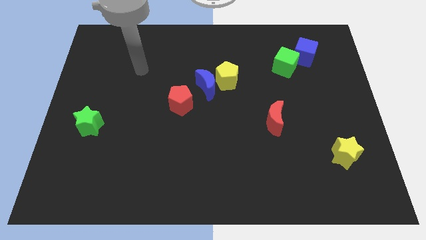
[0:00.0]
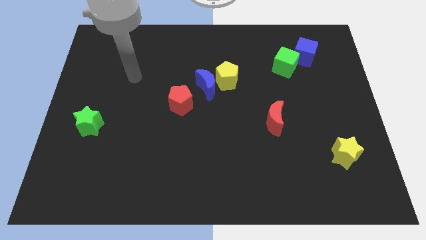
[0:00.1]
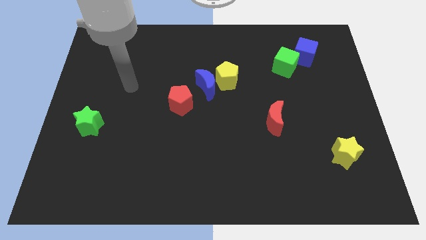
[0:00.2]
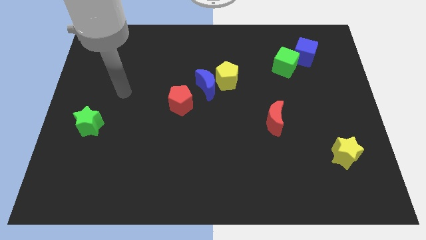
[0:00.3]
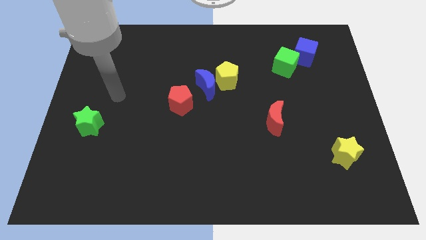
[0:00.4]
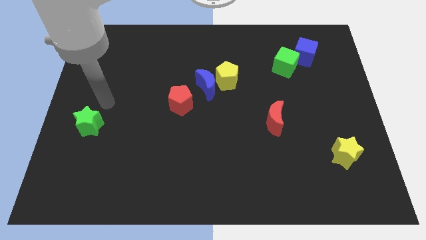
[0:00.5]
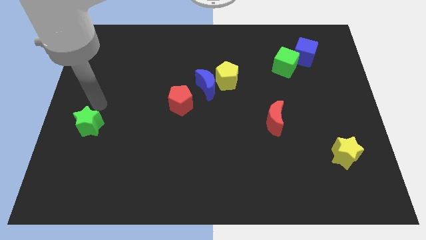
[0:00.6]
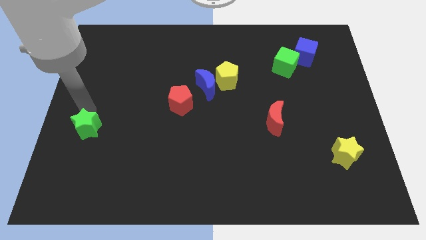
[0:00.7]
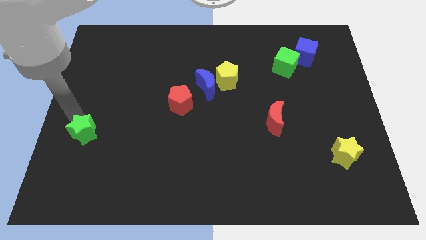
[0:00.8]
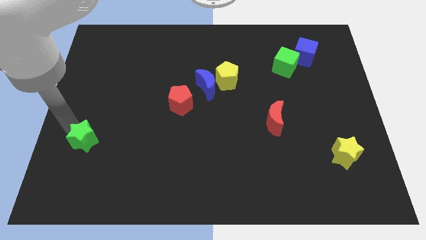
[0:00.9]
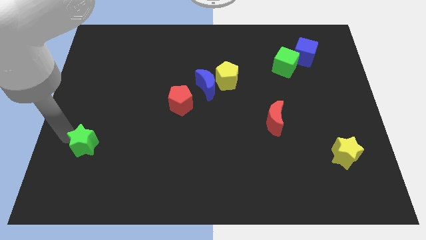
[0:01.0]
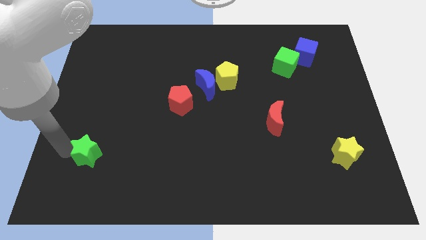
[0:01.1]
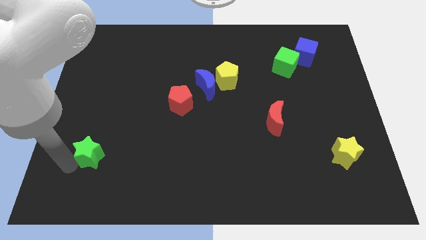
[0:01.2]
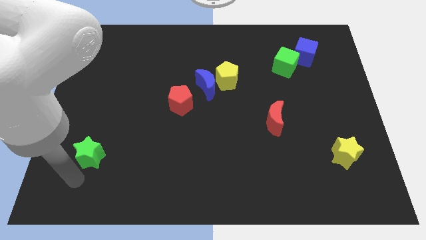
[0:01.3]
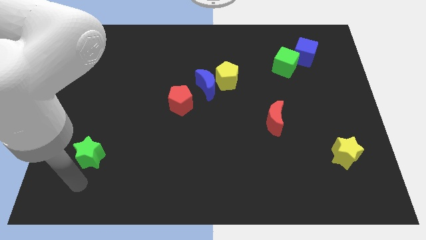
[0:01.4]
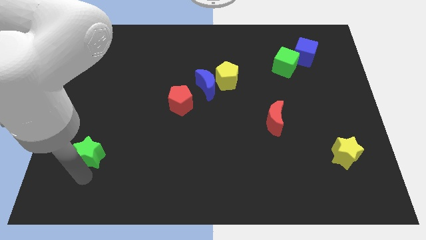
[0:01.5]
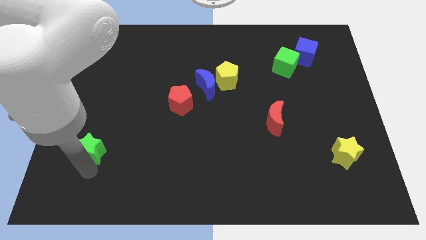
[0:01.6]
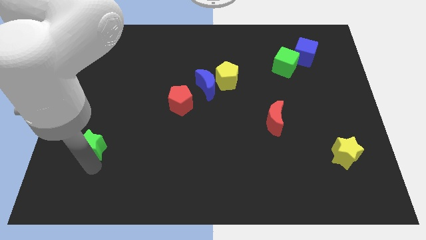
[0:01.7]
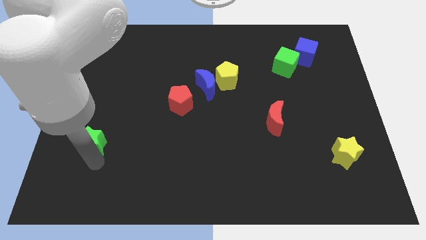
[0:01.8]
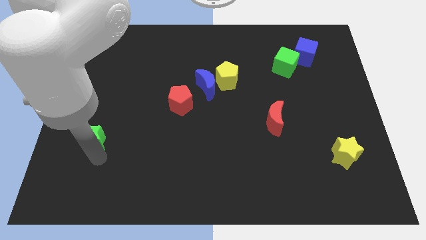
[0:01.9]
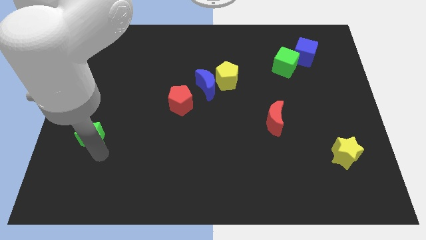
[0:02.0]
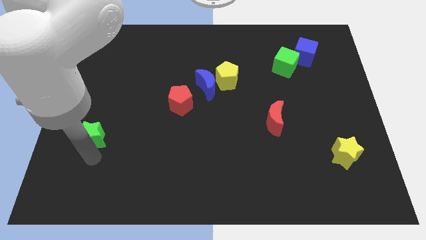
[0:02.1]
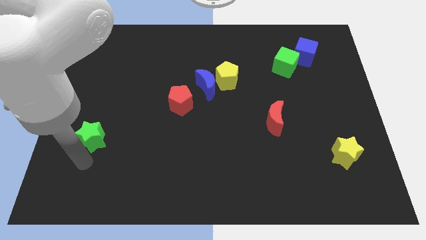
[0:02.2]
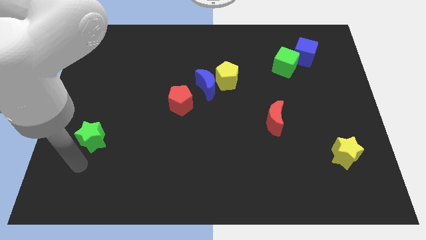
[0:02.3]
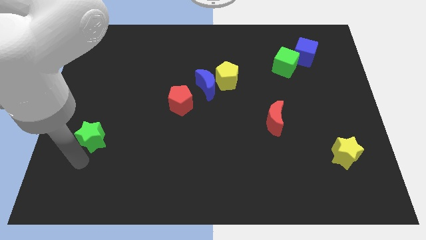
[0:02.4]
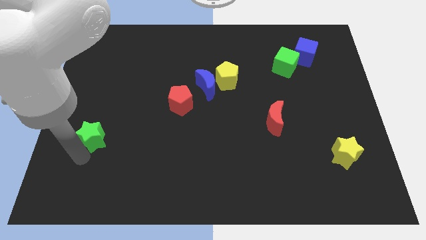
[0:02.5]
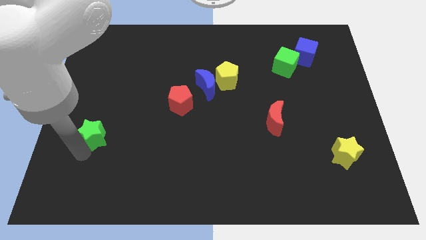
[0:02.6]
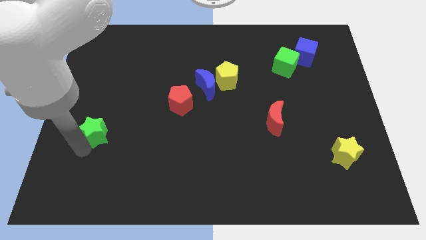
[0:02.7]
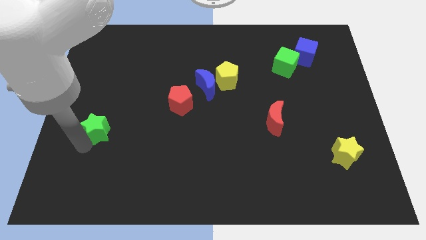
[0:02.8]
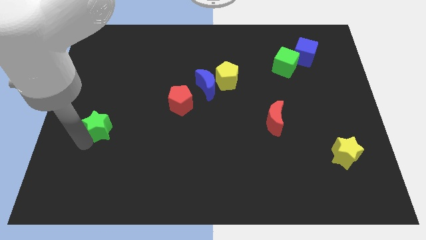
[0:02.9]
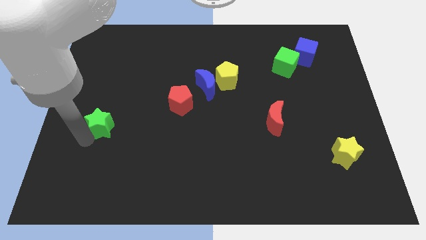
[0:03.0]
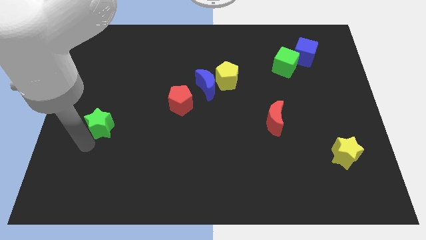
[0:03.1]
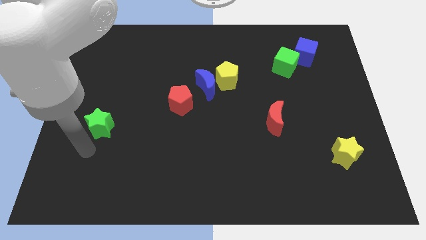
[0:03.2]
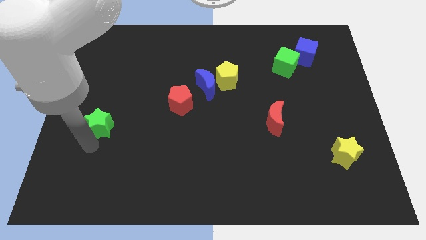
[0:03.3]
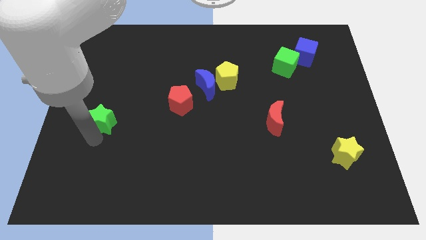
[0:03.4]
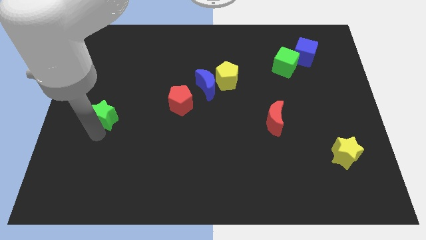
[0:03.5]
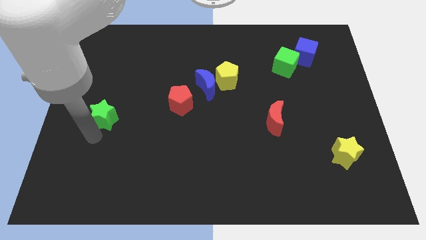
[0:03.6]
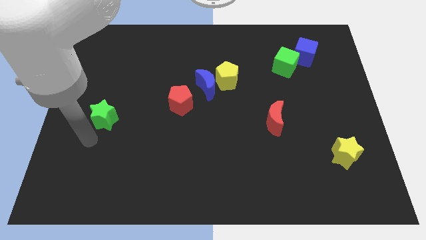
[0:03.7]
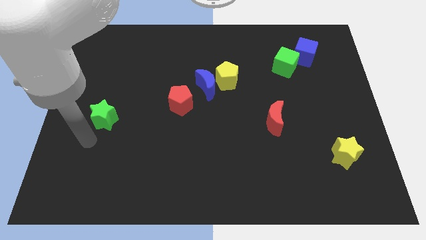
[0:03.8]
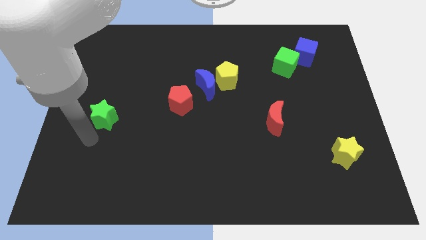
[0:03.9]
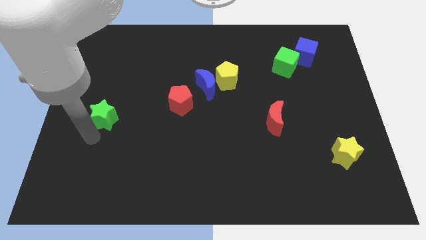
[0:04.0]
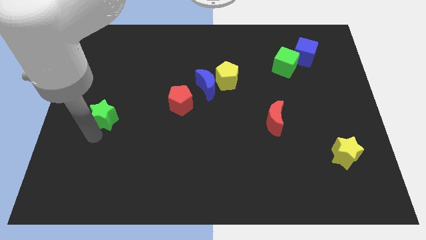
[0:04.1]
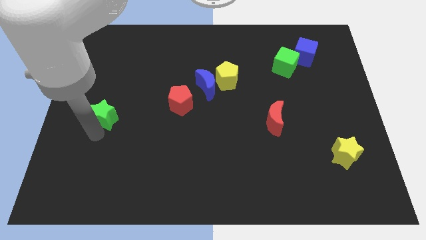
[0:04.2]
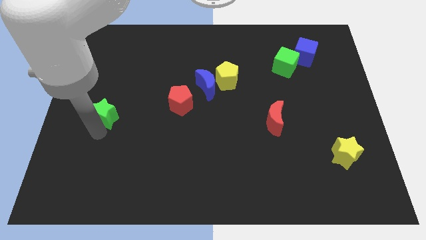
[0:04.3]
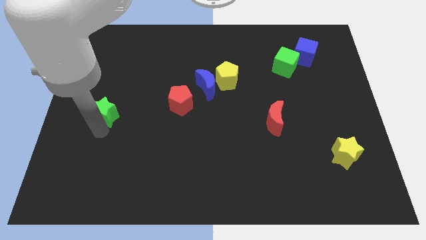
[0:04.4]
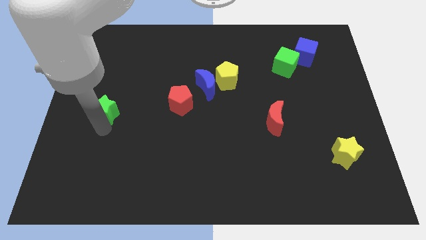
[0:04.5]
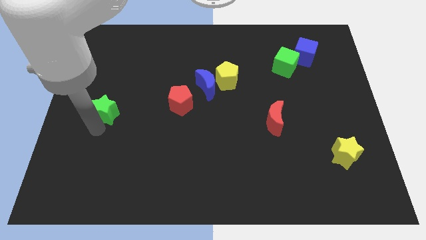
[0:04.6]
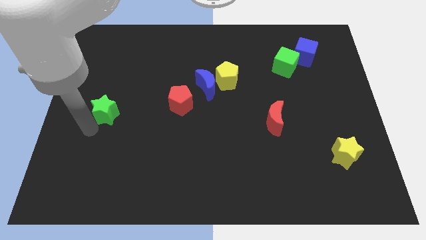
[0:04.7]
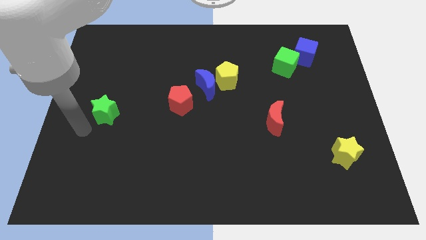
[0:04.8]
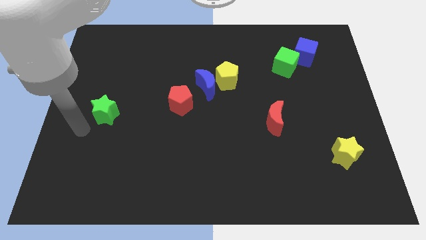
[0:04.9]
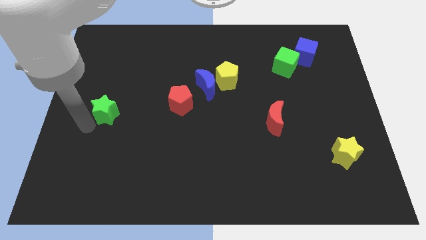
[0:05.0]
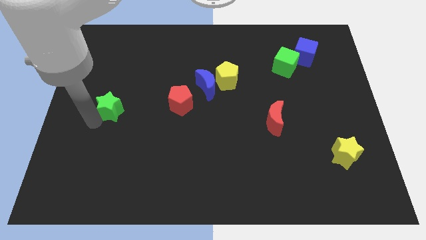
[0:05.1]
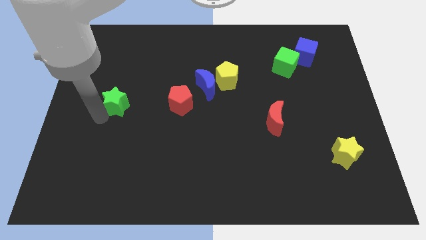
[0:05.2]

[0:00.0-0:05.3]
slightly push the green star upwards and to the right diagonally

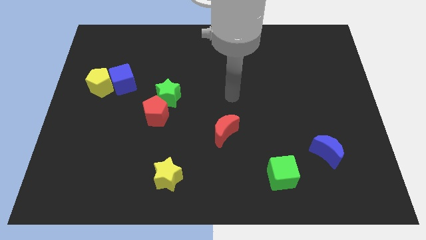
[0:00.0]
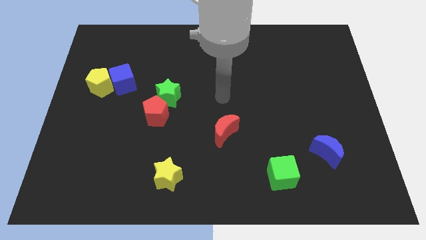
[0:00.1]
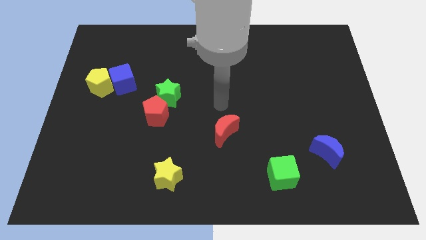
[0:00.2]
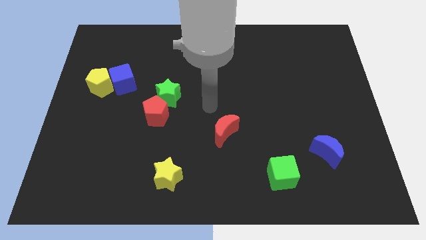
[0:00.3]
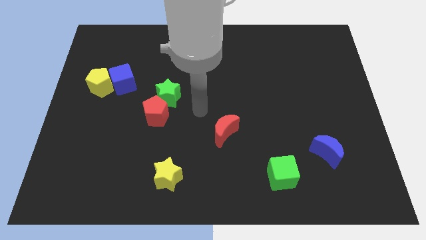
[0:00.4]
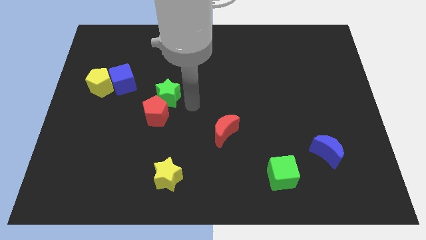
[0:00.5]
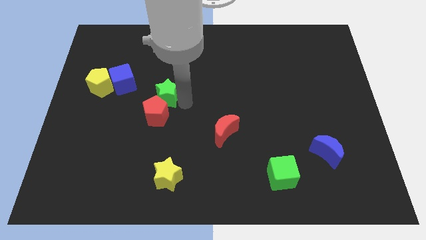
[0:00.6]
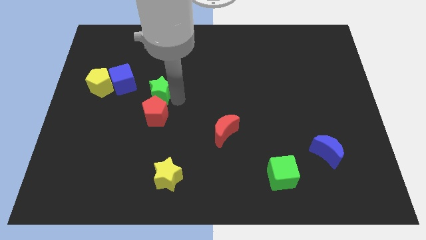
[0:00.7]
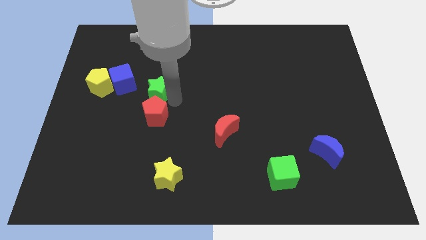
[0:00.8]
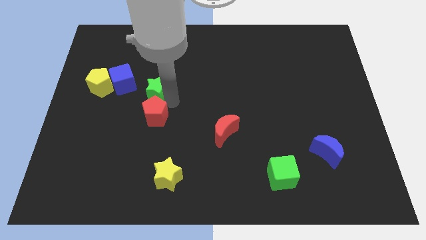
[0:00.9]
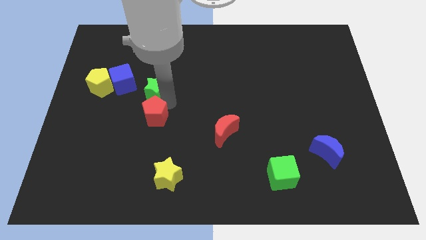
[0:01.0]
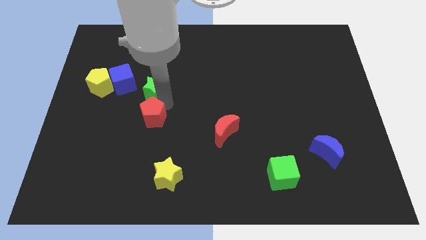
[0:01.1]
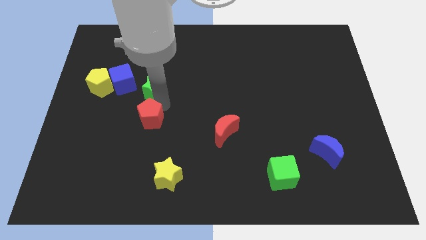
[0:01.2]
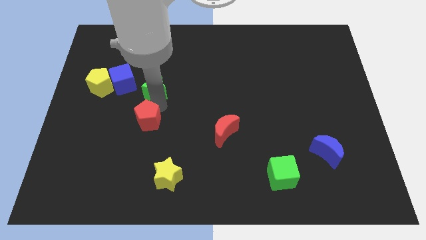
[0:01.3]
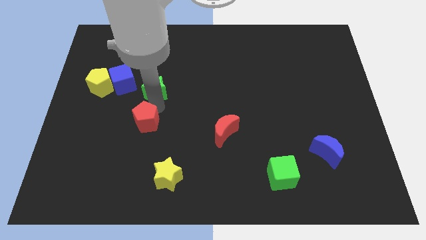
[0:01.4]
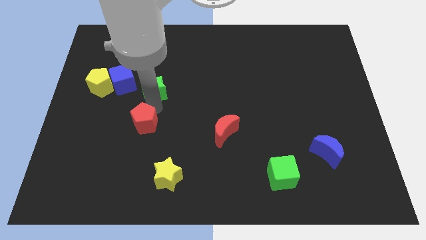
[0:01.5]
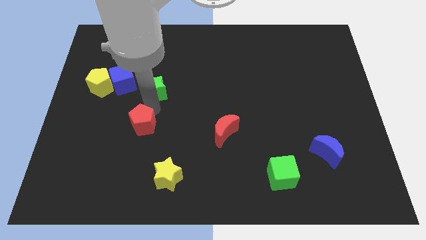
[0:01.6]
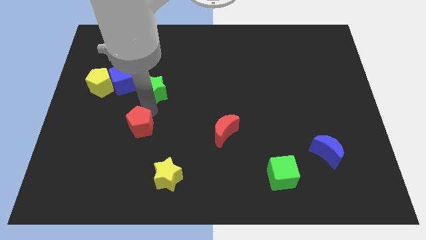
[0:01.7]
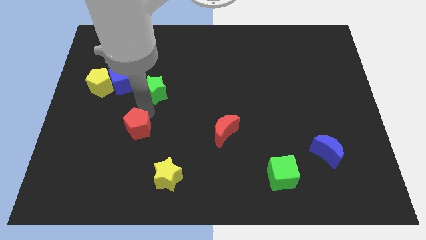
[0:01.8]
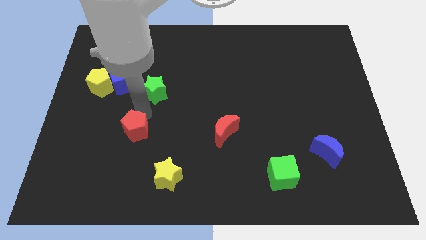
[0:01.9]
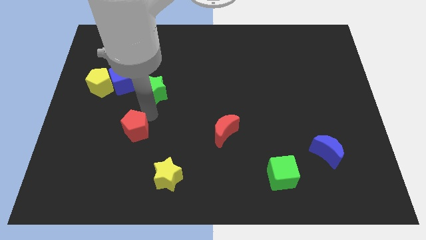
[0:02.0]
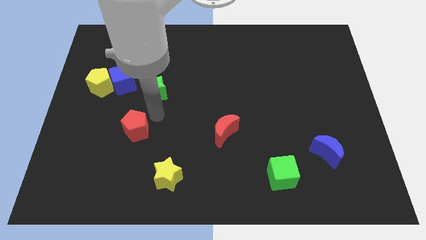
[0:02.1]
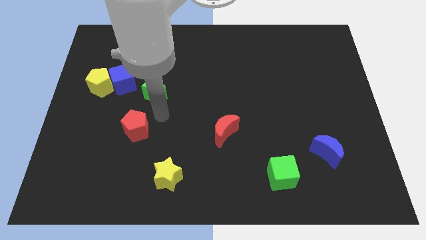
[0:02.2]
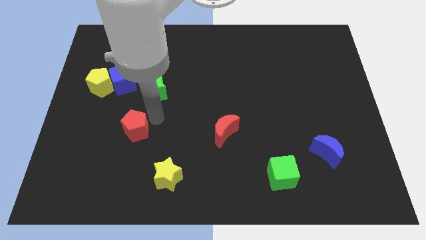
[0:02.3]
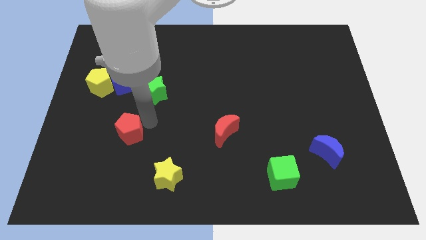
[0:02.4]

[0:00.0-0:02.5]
slide the red pentagon a little bit downwards and then left
